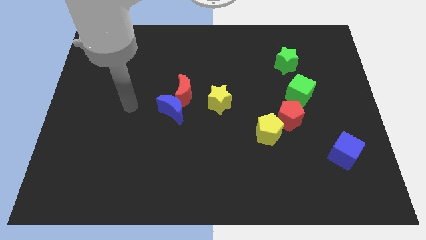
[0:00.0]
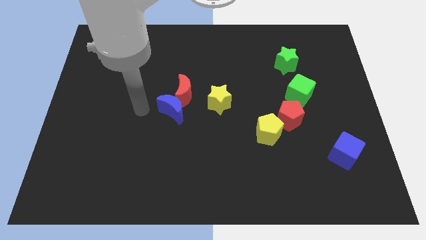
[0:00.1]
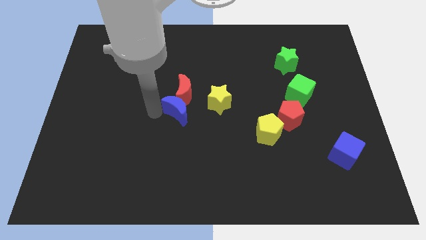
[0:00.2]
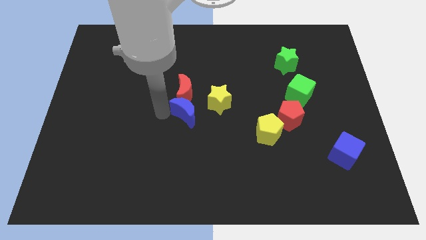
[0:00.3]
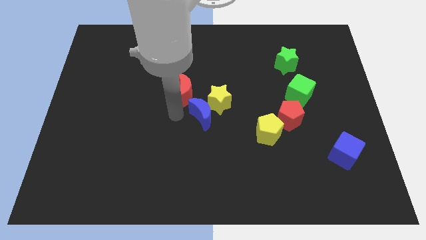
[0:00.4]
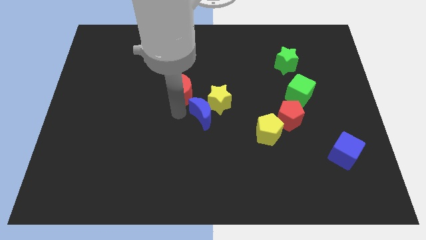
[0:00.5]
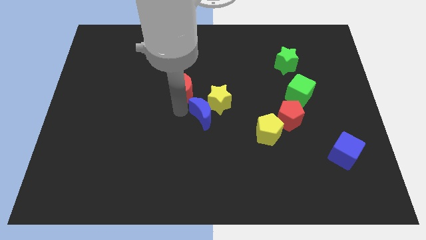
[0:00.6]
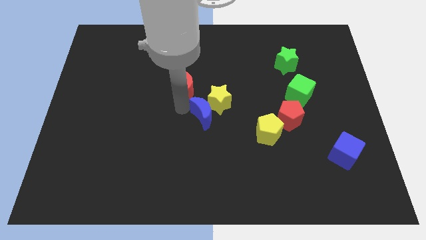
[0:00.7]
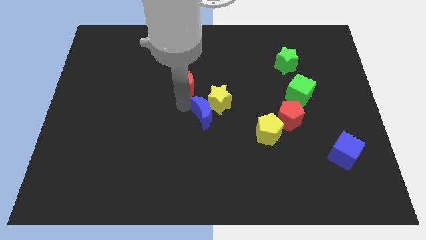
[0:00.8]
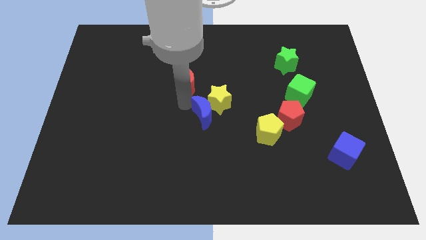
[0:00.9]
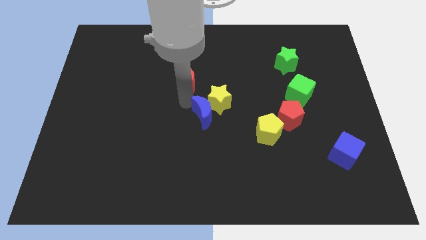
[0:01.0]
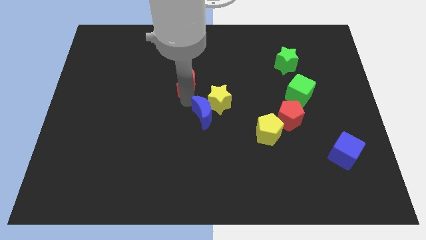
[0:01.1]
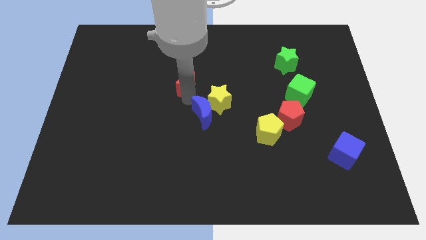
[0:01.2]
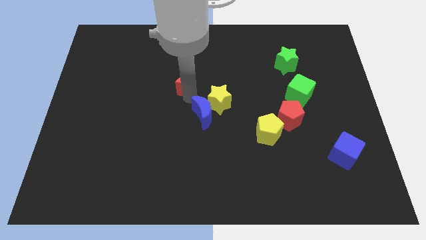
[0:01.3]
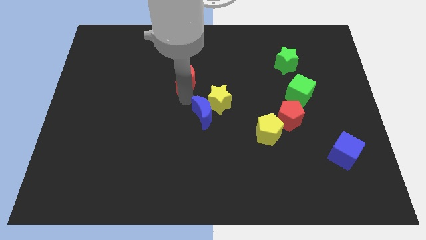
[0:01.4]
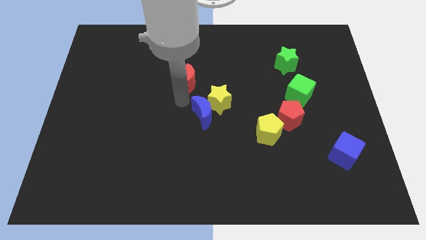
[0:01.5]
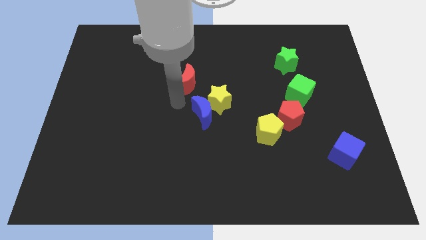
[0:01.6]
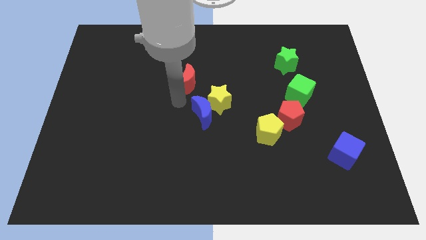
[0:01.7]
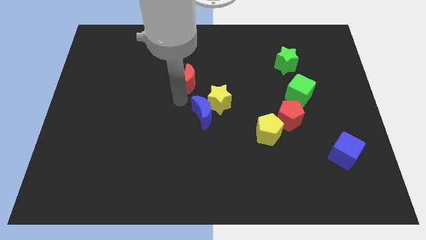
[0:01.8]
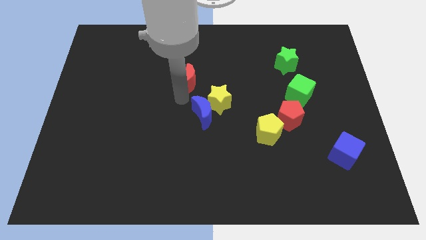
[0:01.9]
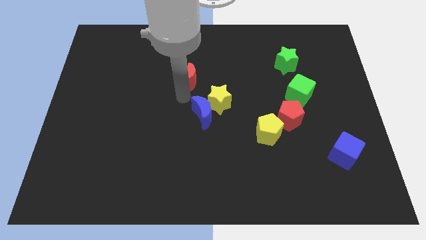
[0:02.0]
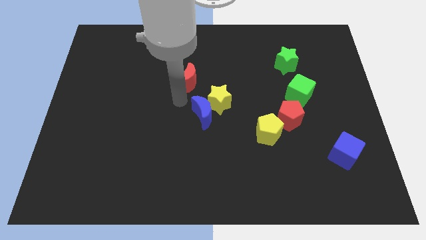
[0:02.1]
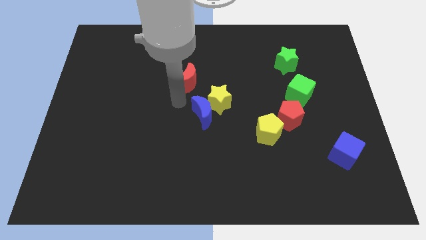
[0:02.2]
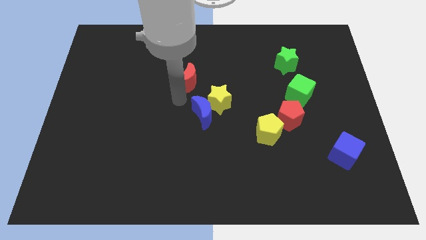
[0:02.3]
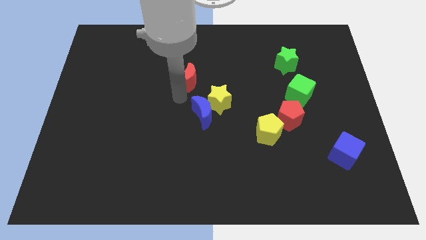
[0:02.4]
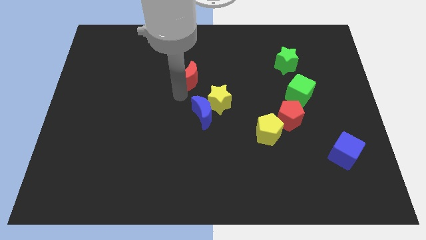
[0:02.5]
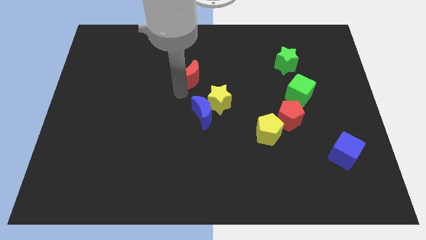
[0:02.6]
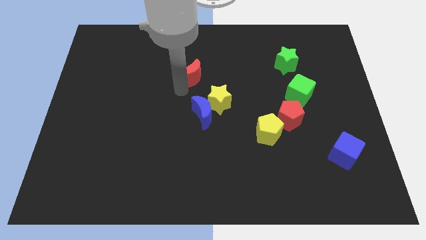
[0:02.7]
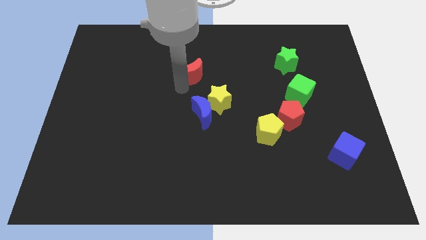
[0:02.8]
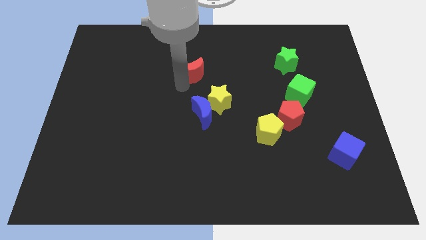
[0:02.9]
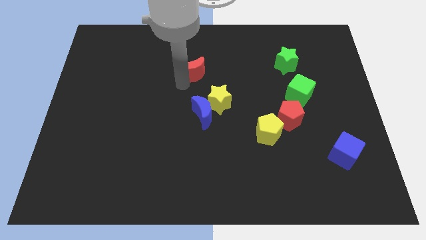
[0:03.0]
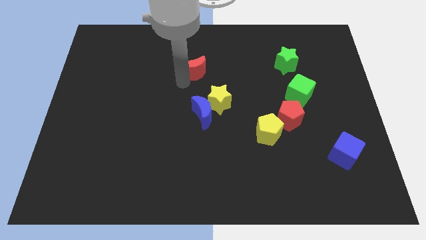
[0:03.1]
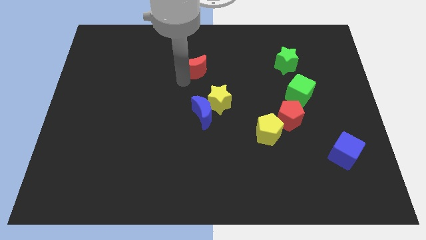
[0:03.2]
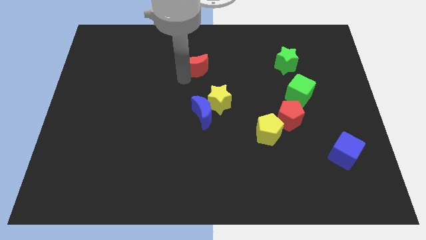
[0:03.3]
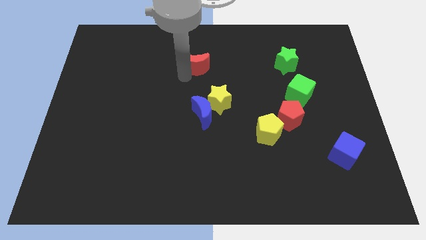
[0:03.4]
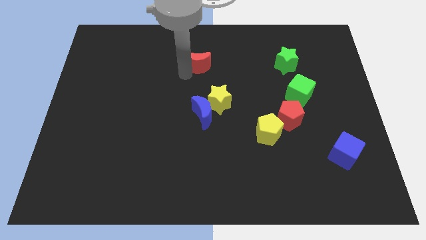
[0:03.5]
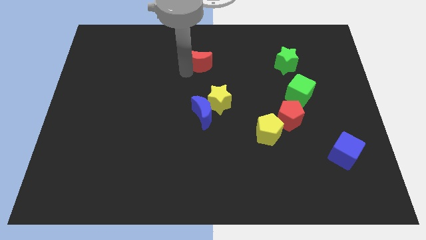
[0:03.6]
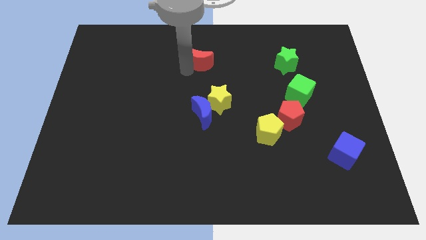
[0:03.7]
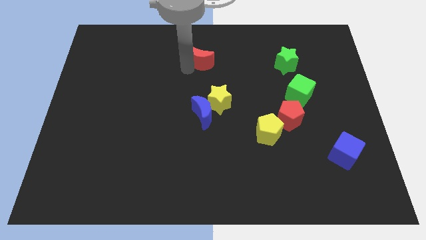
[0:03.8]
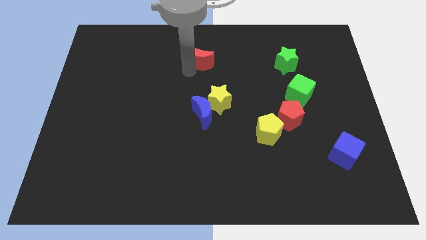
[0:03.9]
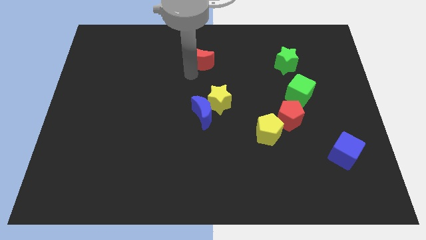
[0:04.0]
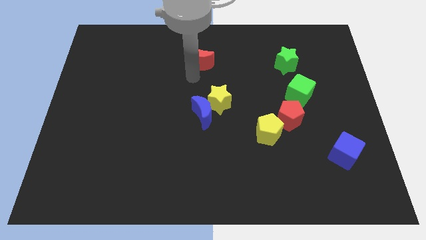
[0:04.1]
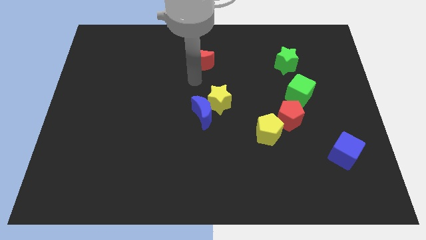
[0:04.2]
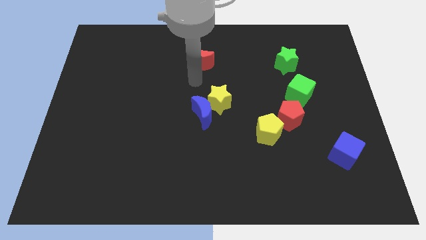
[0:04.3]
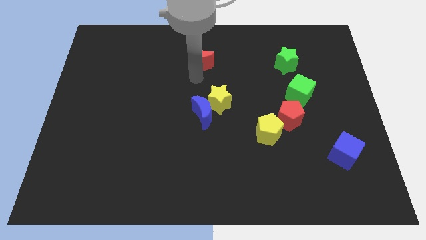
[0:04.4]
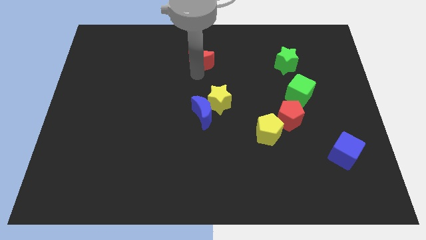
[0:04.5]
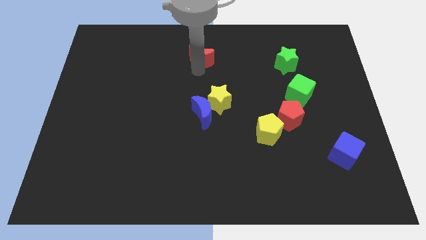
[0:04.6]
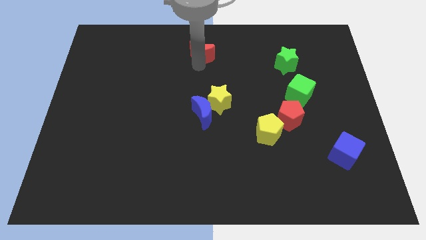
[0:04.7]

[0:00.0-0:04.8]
slide the red moon to the top side

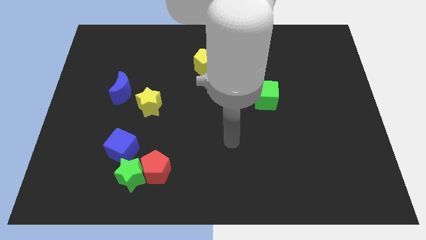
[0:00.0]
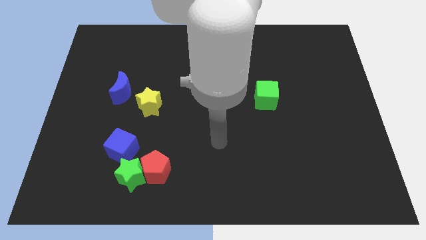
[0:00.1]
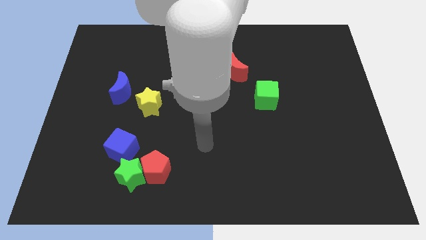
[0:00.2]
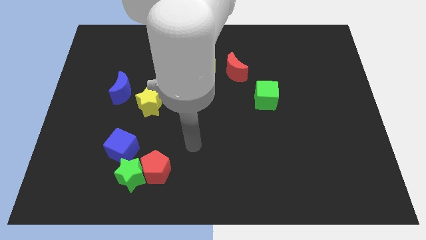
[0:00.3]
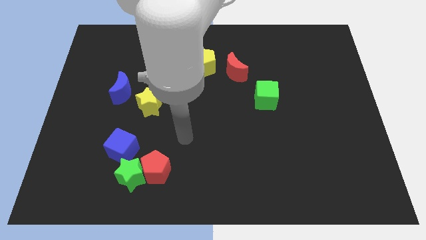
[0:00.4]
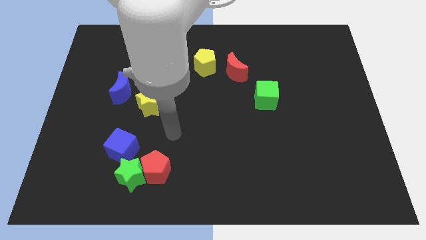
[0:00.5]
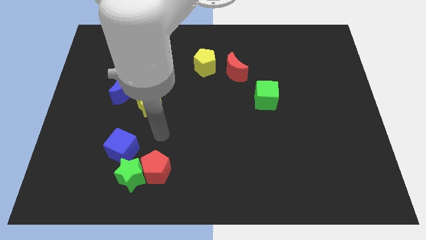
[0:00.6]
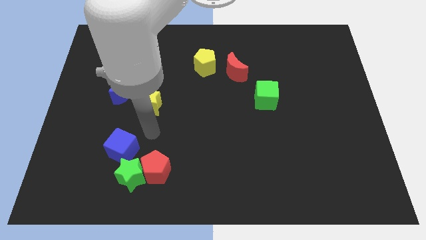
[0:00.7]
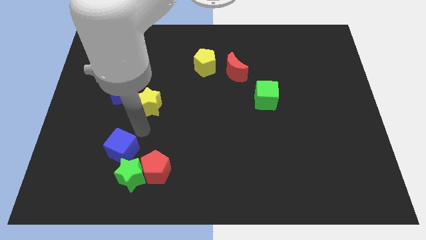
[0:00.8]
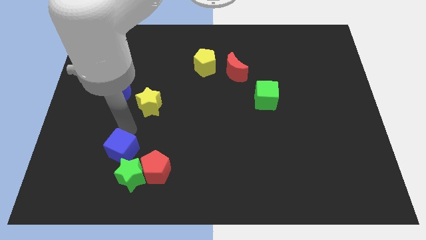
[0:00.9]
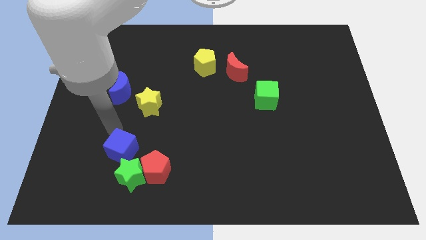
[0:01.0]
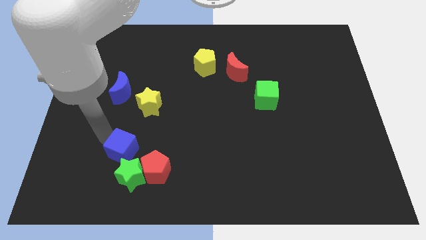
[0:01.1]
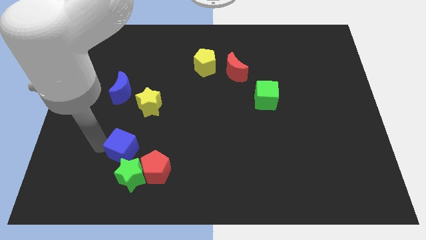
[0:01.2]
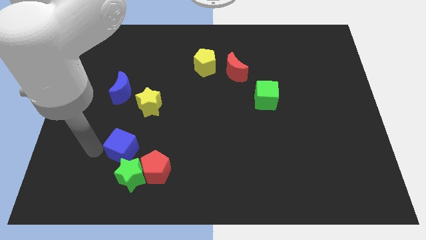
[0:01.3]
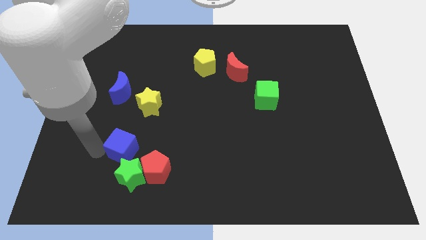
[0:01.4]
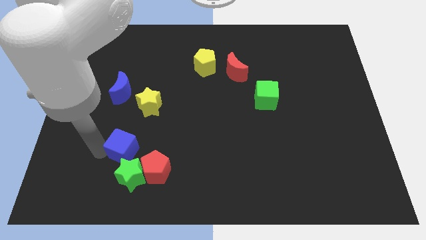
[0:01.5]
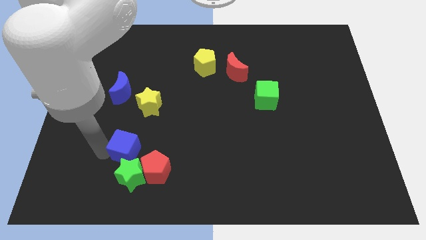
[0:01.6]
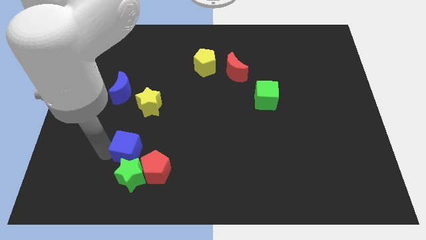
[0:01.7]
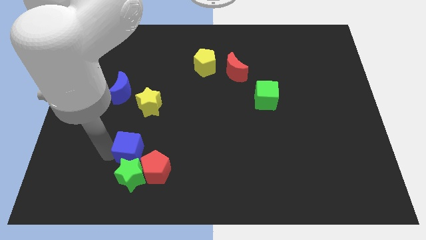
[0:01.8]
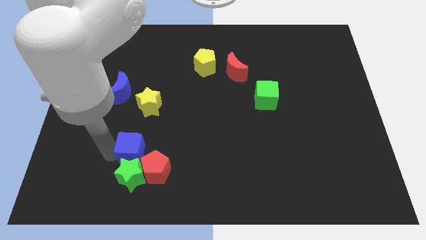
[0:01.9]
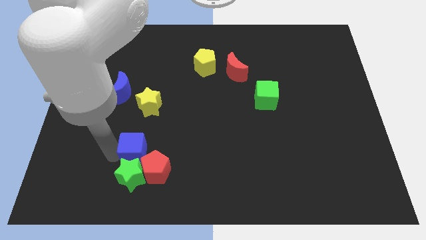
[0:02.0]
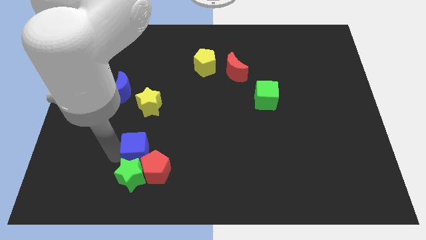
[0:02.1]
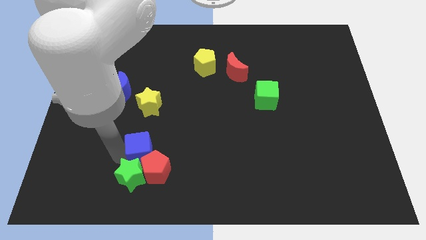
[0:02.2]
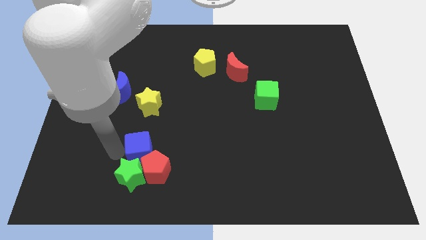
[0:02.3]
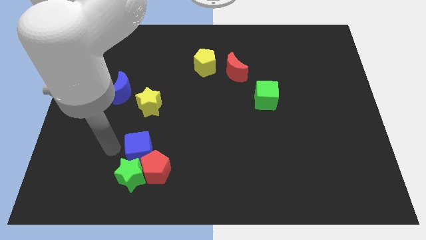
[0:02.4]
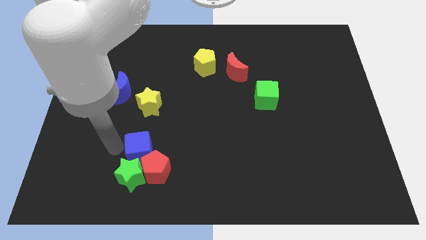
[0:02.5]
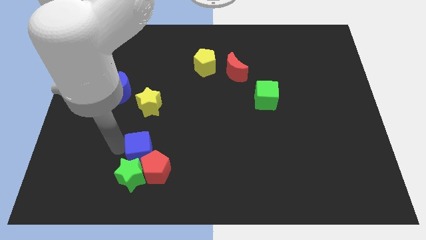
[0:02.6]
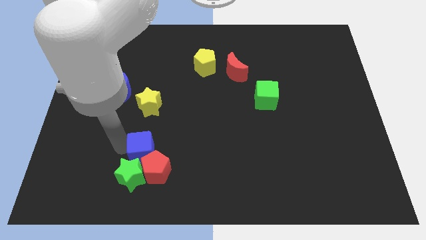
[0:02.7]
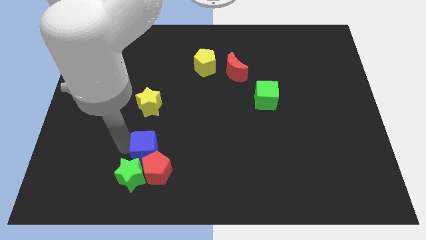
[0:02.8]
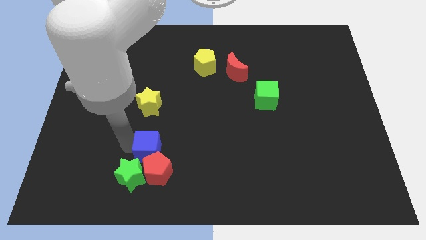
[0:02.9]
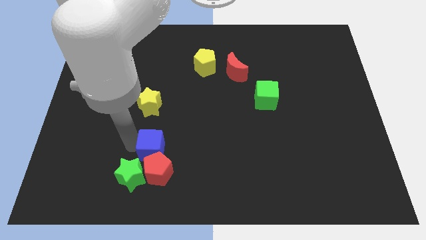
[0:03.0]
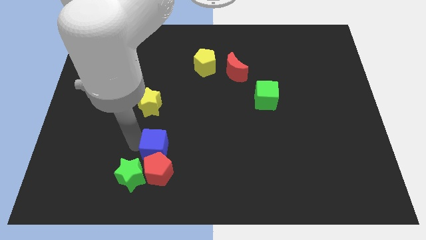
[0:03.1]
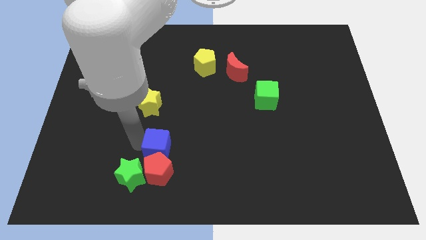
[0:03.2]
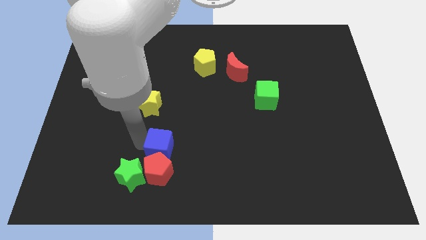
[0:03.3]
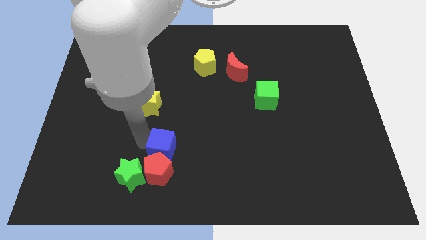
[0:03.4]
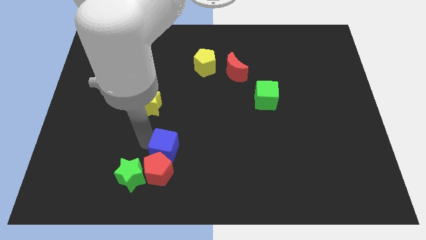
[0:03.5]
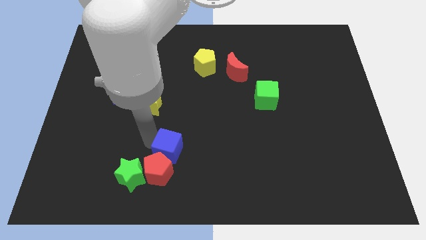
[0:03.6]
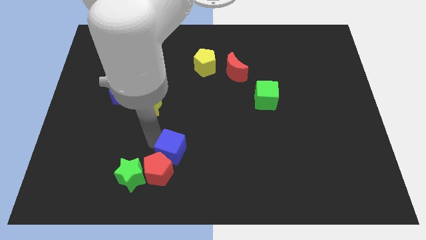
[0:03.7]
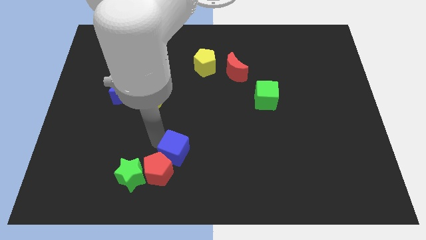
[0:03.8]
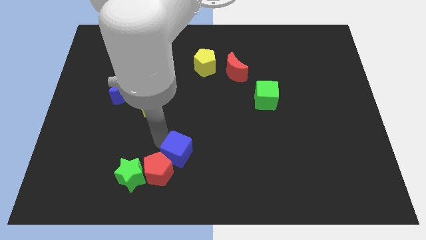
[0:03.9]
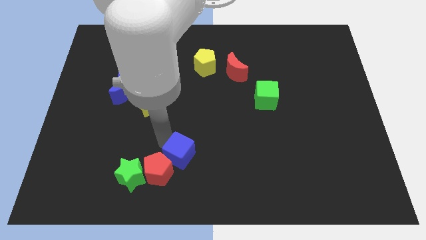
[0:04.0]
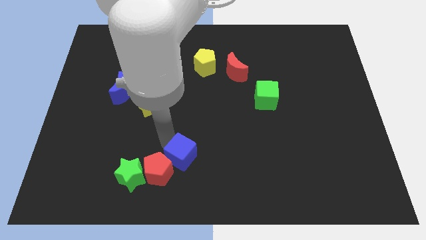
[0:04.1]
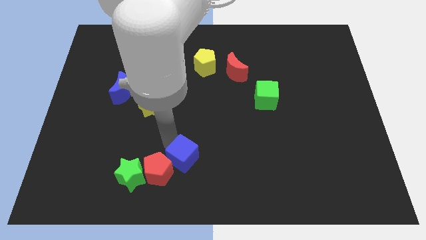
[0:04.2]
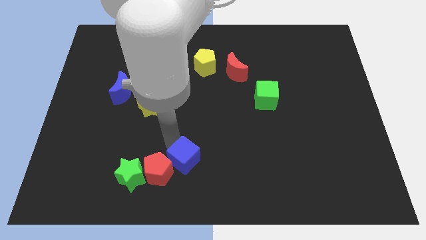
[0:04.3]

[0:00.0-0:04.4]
push the blue cube to the bottom
